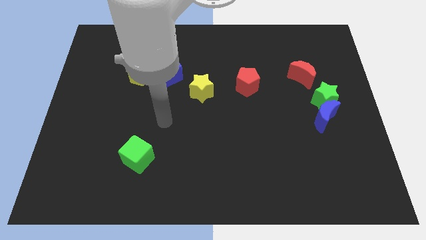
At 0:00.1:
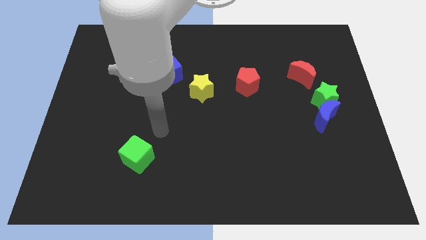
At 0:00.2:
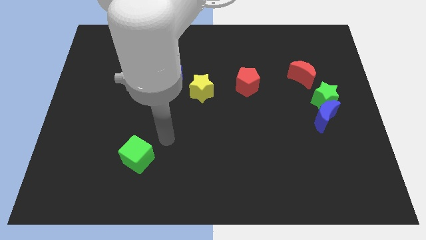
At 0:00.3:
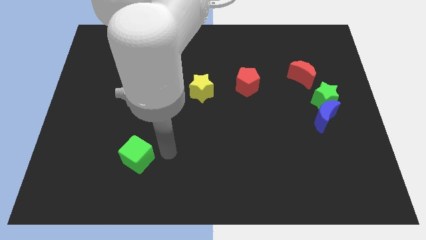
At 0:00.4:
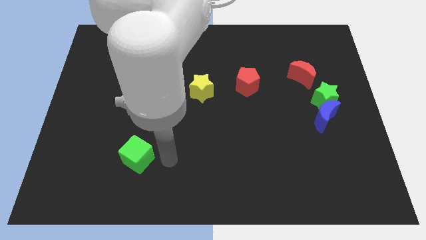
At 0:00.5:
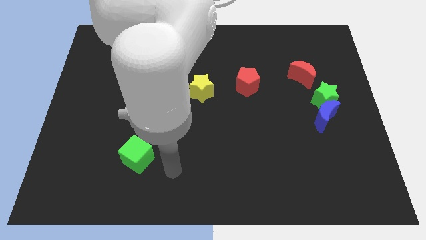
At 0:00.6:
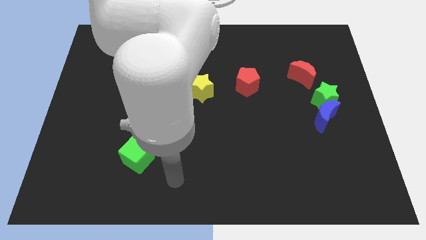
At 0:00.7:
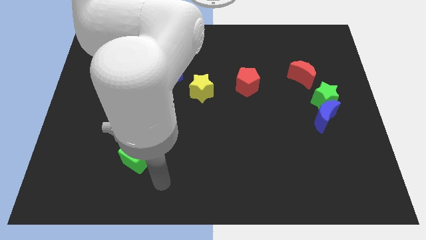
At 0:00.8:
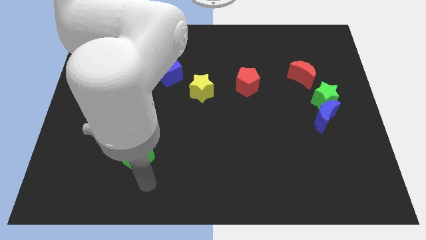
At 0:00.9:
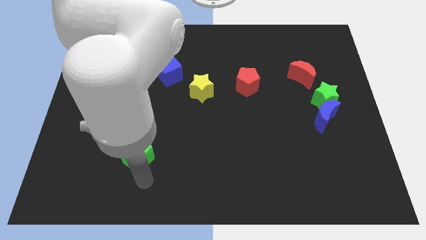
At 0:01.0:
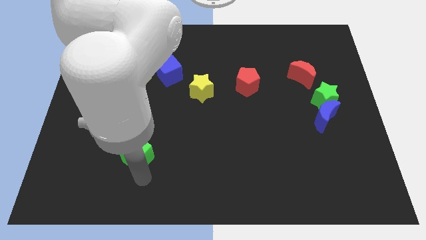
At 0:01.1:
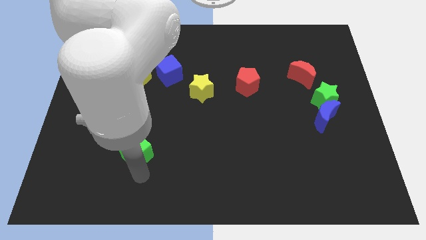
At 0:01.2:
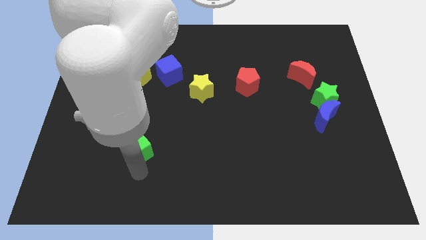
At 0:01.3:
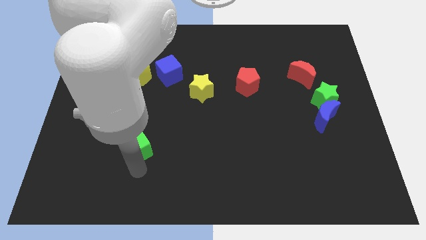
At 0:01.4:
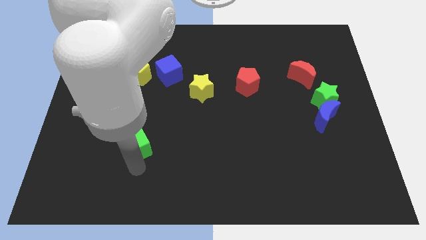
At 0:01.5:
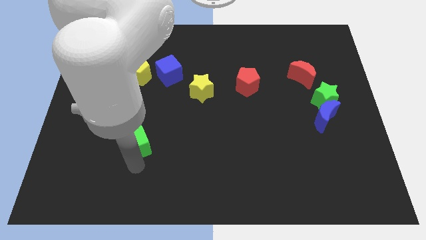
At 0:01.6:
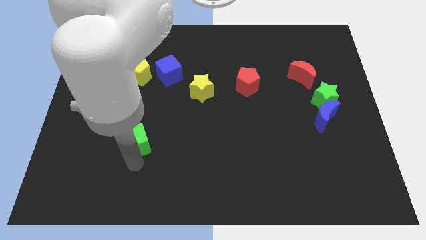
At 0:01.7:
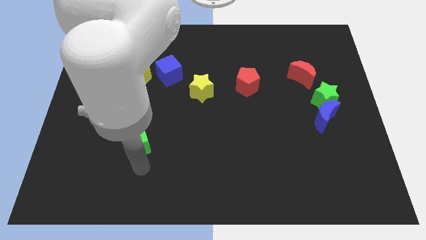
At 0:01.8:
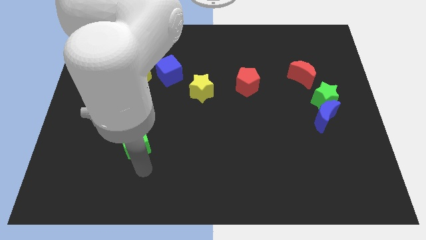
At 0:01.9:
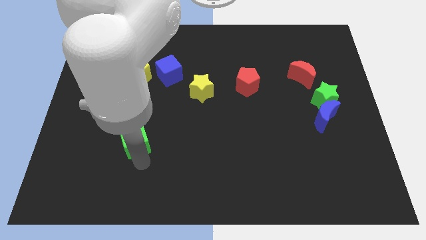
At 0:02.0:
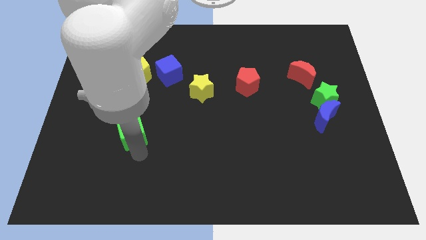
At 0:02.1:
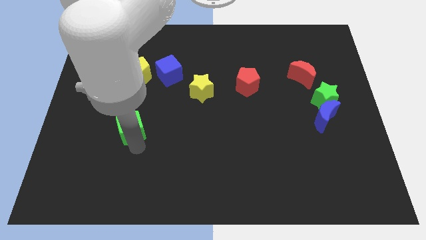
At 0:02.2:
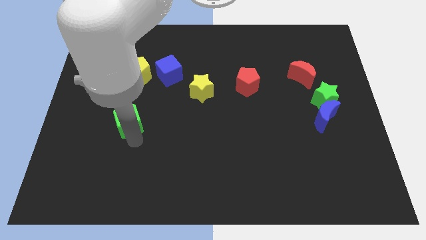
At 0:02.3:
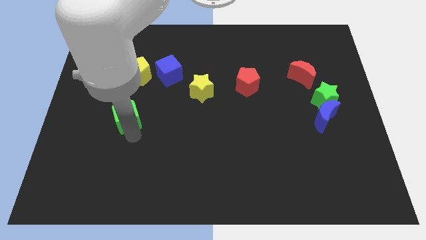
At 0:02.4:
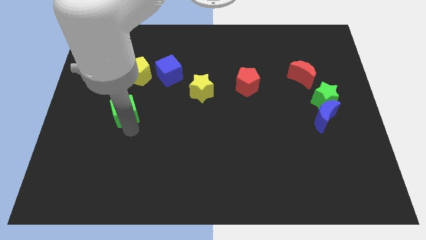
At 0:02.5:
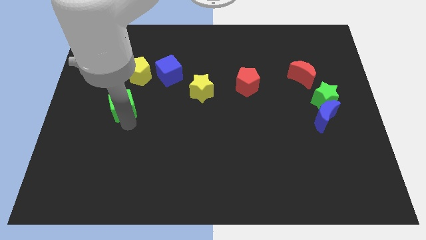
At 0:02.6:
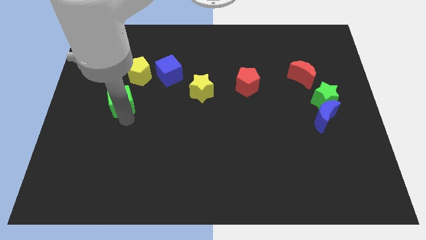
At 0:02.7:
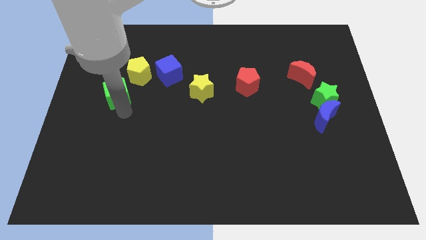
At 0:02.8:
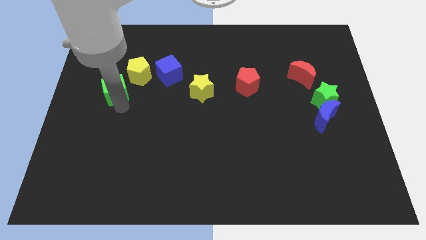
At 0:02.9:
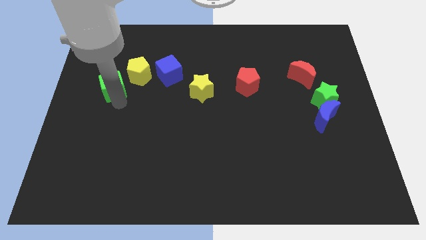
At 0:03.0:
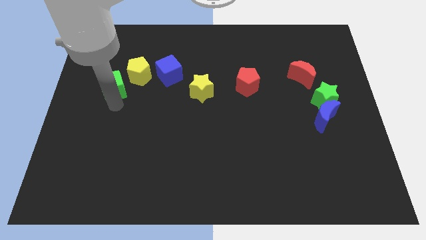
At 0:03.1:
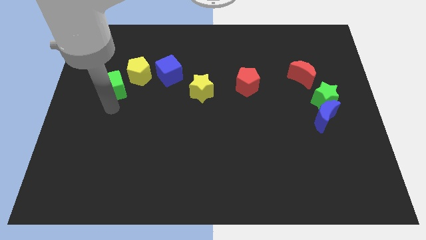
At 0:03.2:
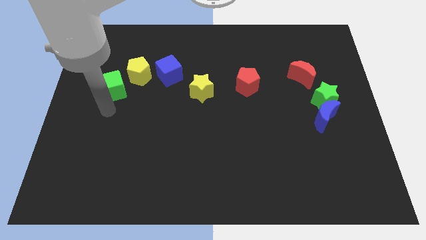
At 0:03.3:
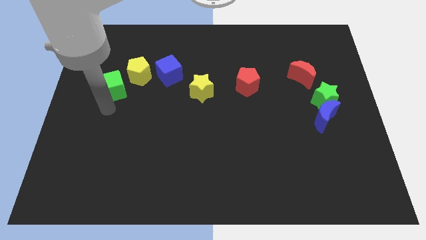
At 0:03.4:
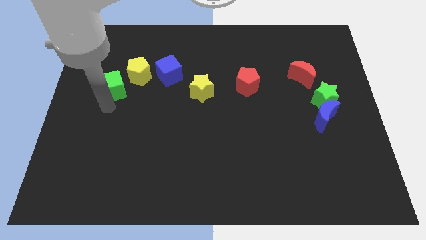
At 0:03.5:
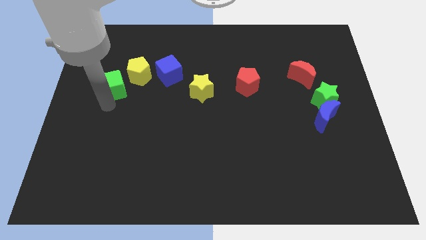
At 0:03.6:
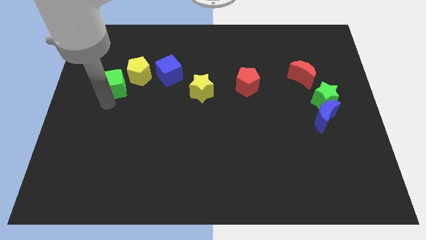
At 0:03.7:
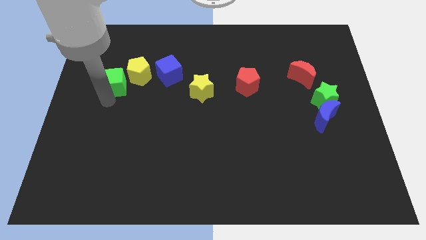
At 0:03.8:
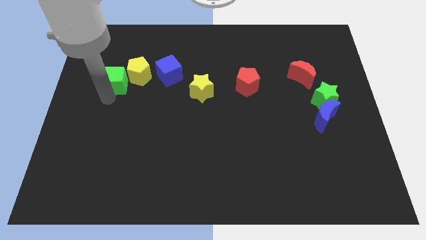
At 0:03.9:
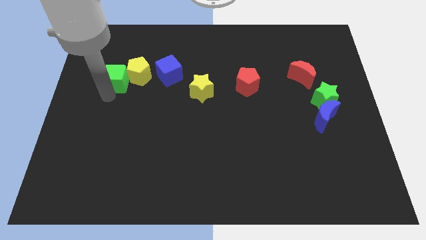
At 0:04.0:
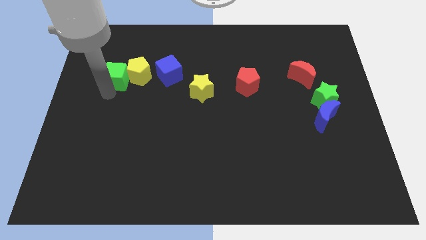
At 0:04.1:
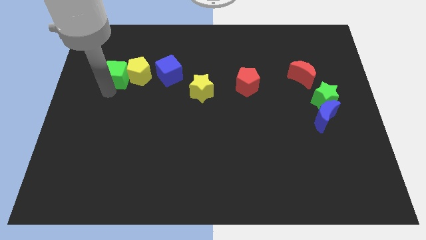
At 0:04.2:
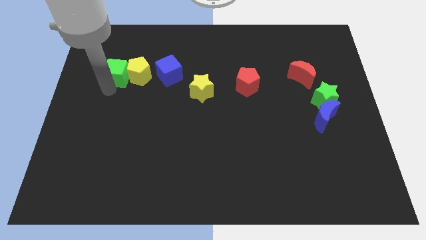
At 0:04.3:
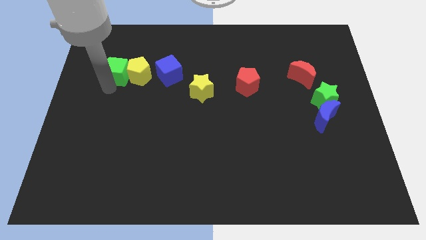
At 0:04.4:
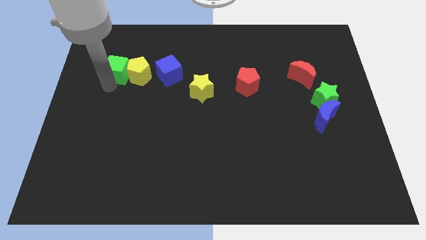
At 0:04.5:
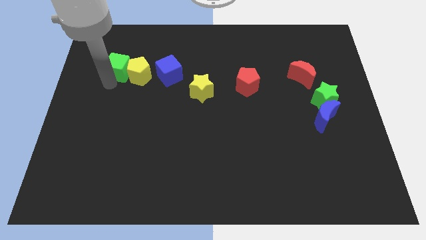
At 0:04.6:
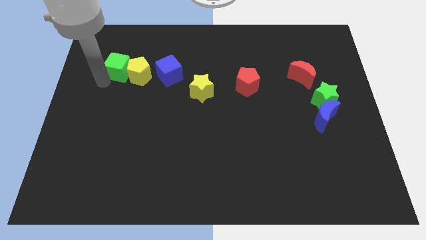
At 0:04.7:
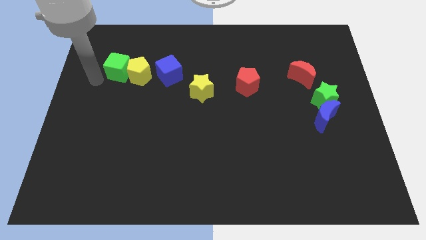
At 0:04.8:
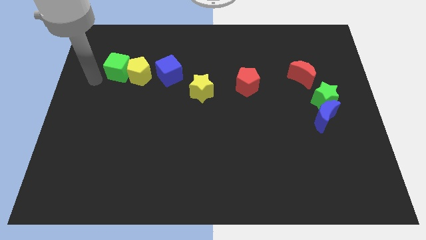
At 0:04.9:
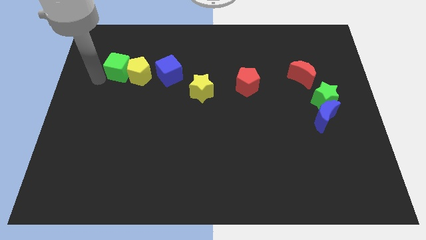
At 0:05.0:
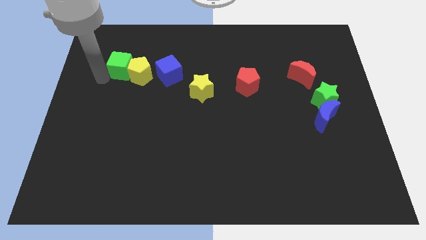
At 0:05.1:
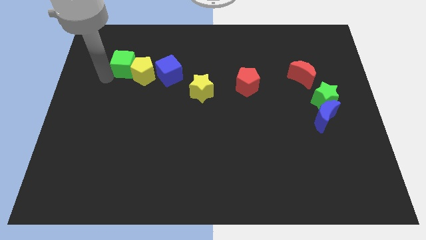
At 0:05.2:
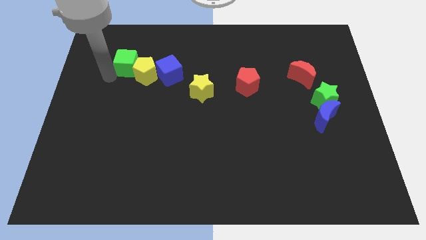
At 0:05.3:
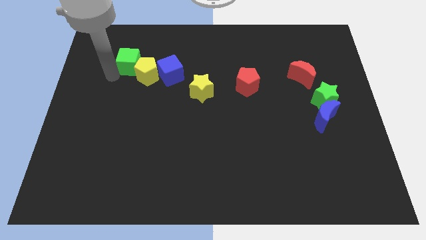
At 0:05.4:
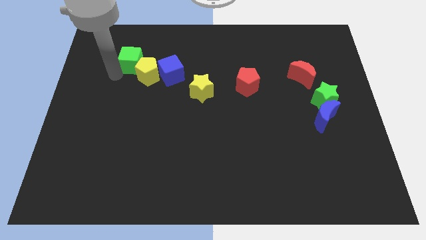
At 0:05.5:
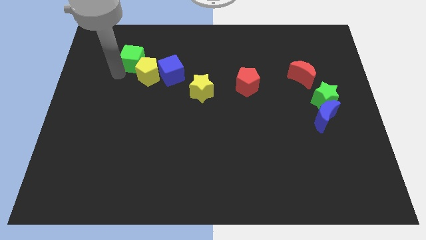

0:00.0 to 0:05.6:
put the green cube to the top left side of the blue cube

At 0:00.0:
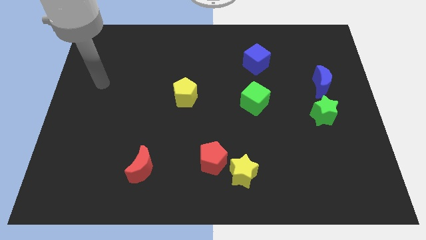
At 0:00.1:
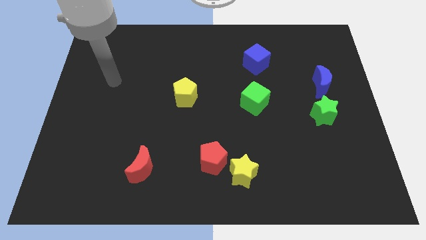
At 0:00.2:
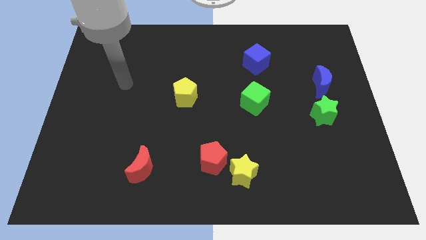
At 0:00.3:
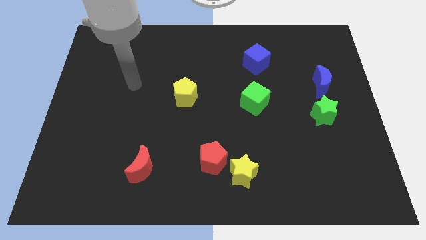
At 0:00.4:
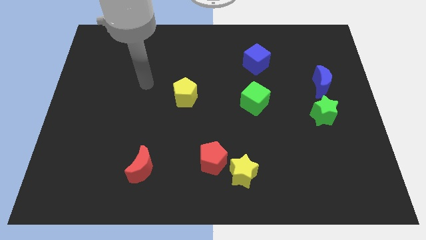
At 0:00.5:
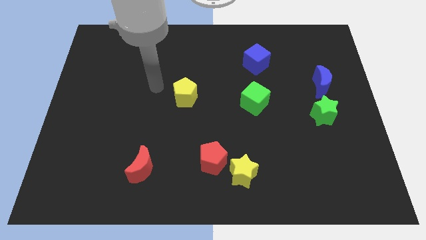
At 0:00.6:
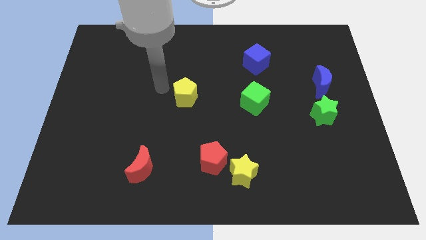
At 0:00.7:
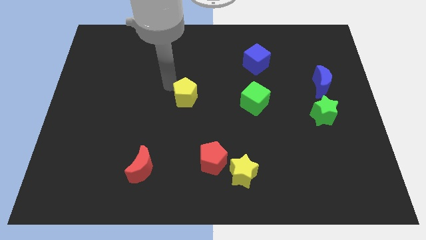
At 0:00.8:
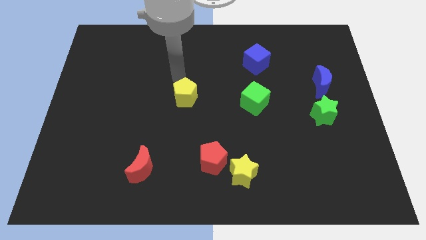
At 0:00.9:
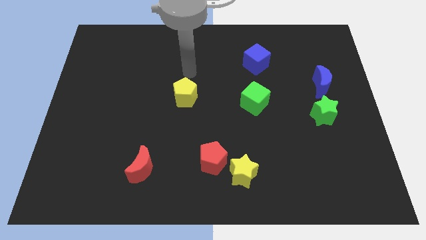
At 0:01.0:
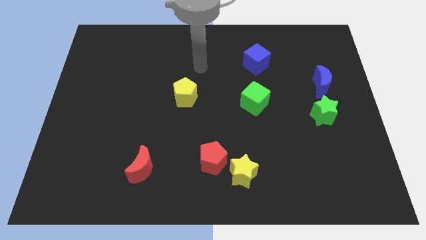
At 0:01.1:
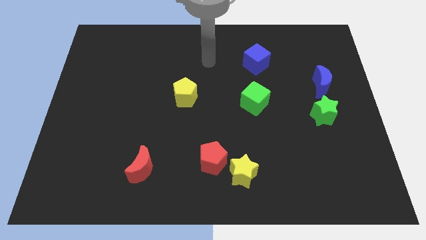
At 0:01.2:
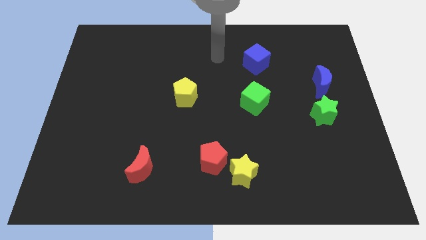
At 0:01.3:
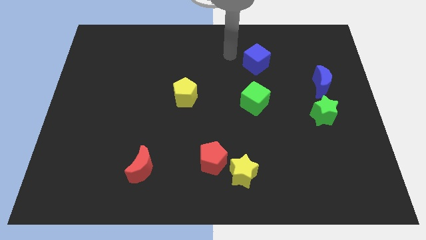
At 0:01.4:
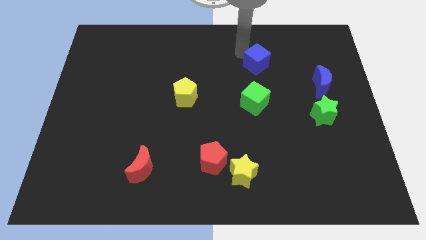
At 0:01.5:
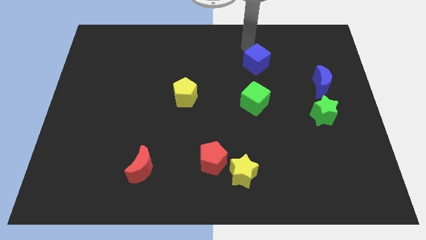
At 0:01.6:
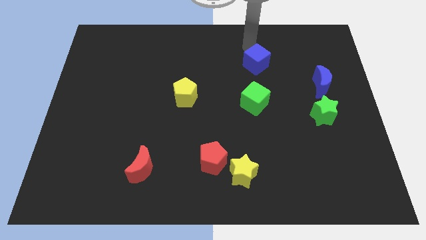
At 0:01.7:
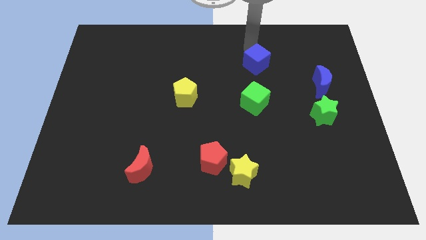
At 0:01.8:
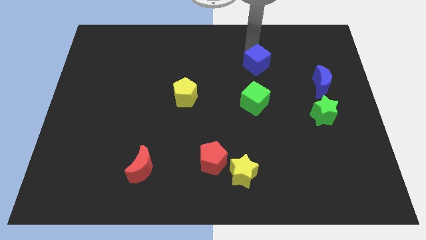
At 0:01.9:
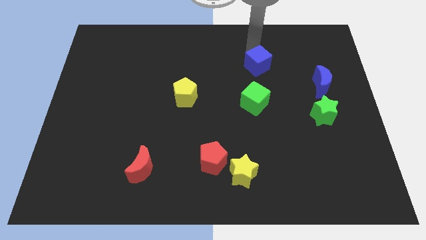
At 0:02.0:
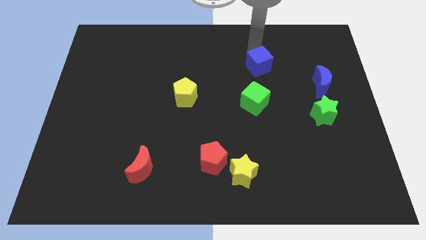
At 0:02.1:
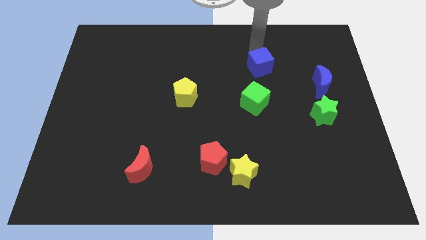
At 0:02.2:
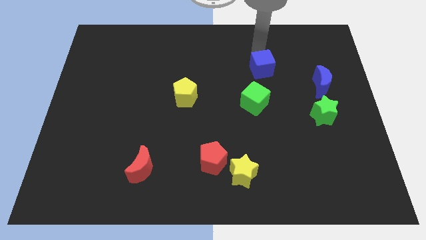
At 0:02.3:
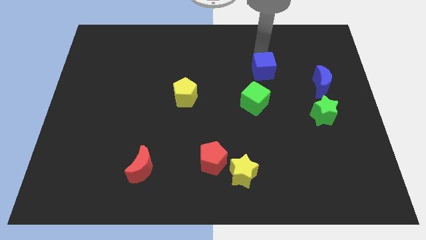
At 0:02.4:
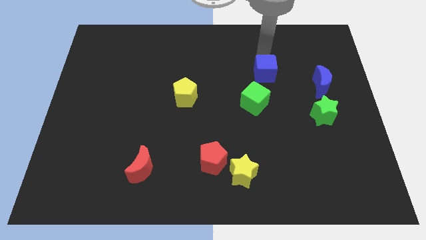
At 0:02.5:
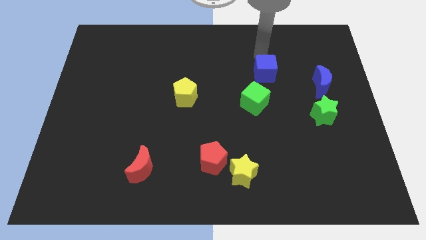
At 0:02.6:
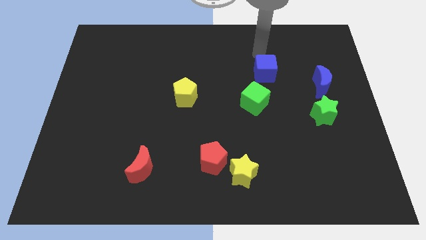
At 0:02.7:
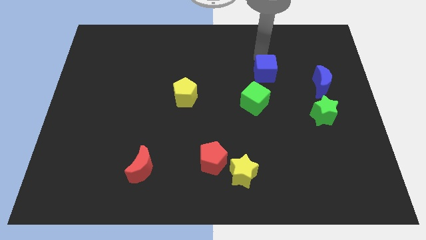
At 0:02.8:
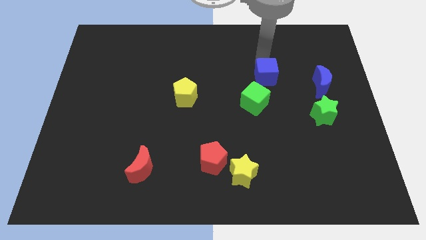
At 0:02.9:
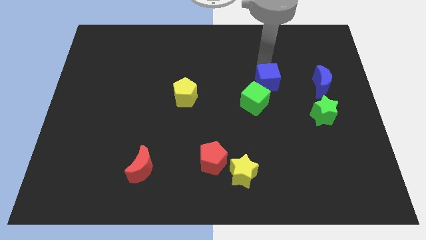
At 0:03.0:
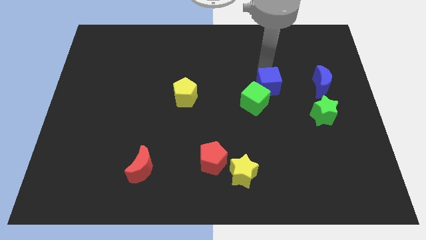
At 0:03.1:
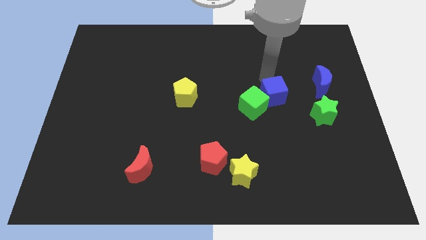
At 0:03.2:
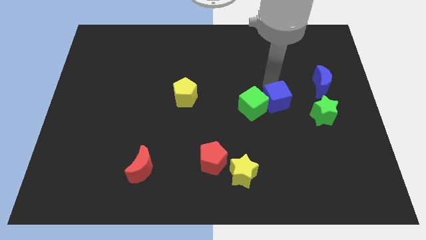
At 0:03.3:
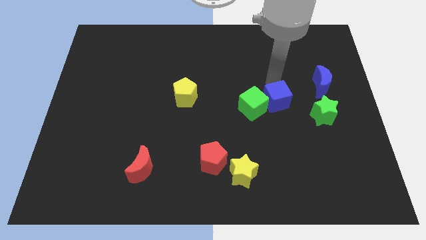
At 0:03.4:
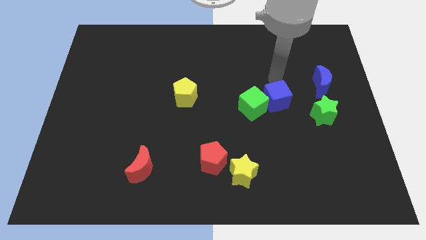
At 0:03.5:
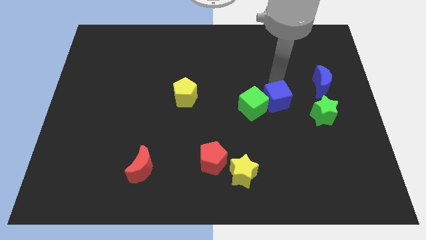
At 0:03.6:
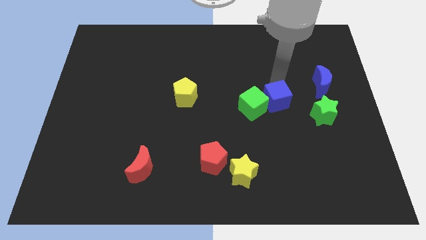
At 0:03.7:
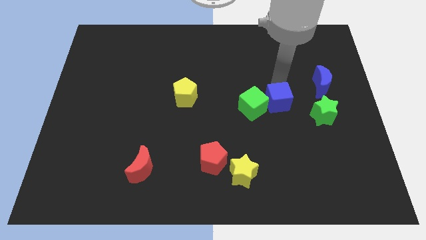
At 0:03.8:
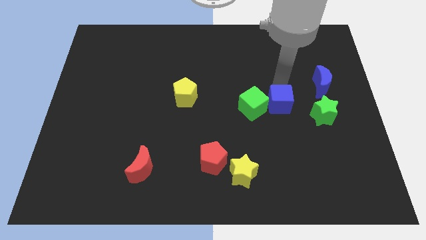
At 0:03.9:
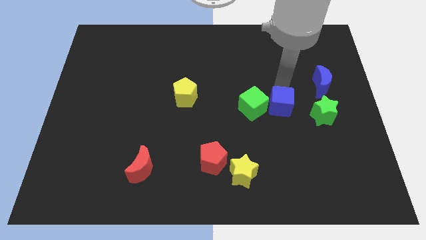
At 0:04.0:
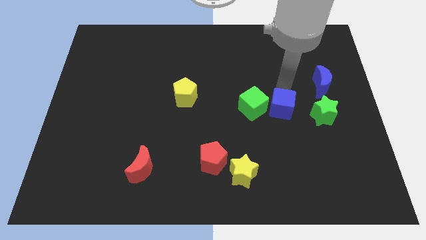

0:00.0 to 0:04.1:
slide the blue cube diagonally down and to the right of the green cube
